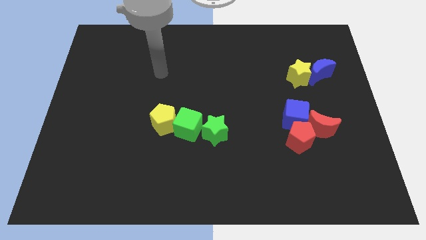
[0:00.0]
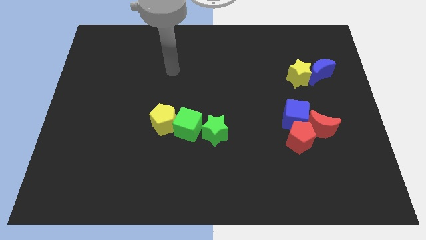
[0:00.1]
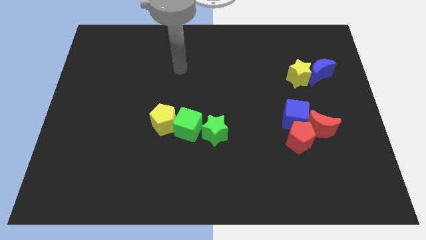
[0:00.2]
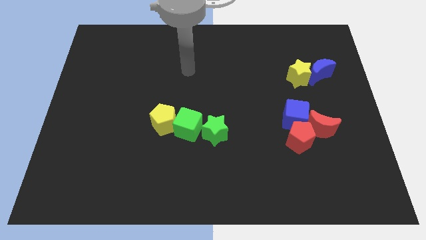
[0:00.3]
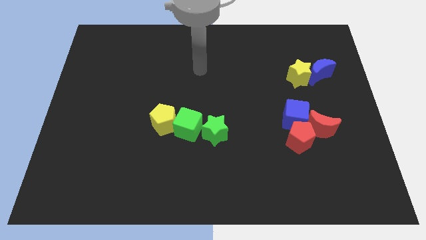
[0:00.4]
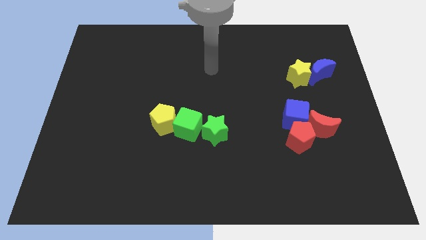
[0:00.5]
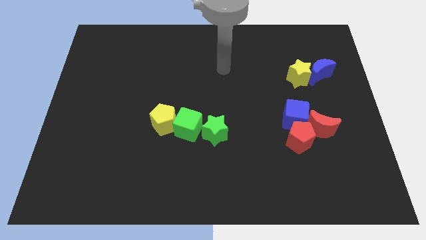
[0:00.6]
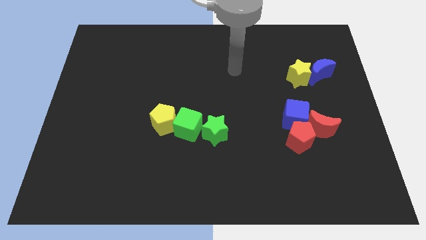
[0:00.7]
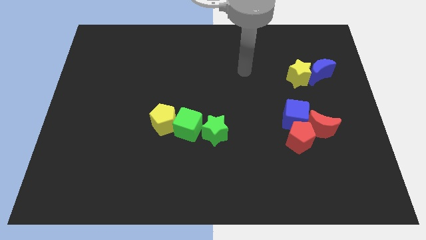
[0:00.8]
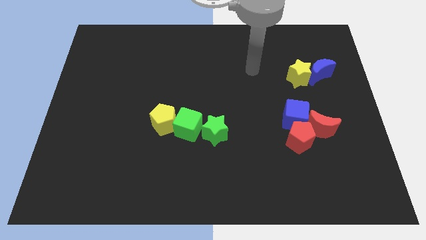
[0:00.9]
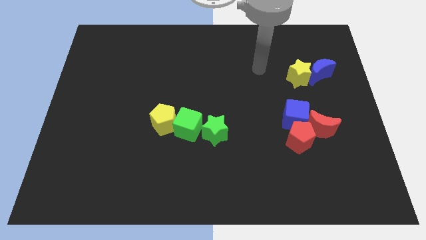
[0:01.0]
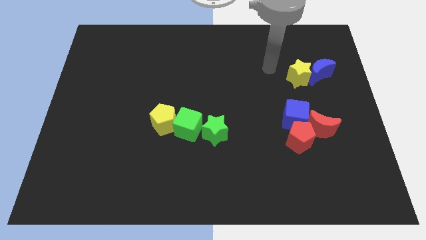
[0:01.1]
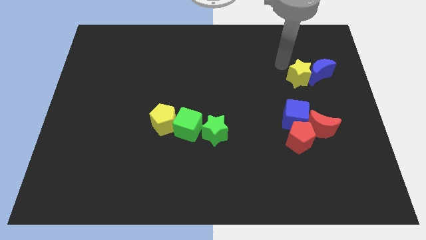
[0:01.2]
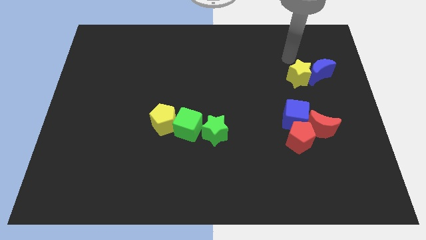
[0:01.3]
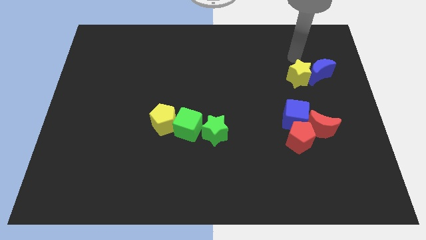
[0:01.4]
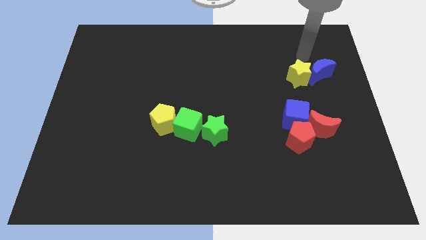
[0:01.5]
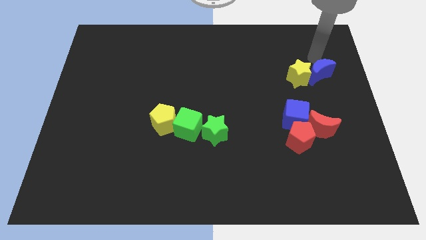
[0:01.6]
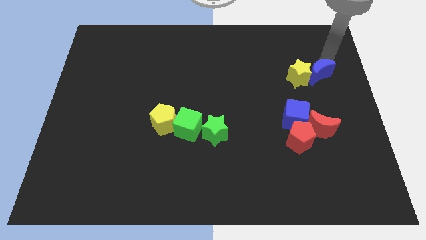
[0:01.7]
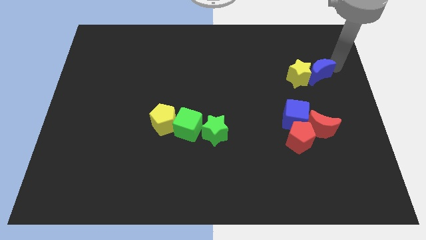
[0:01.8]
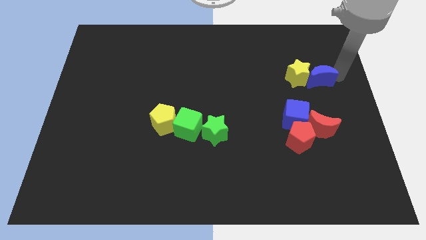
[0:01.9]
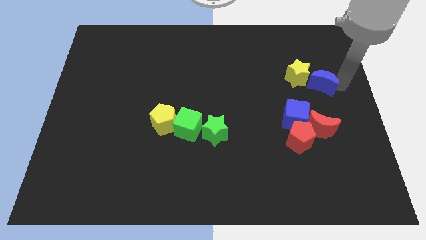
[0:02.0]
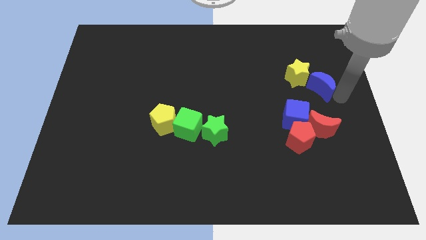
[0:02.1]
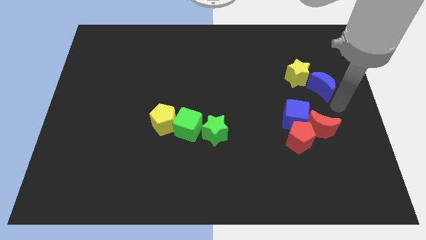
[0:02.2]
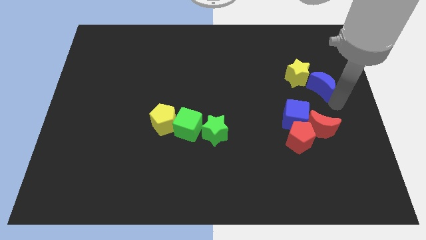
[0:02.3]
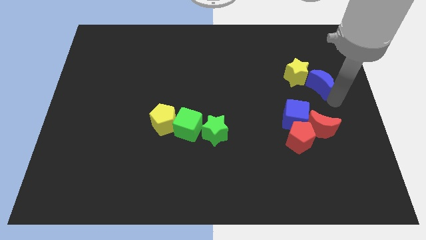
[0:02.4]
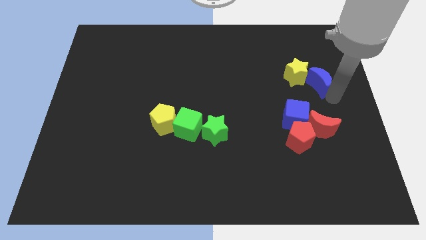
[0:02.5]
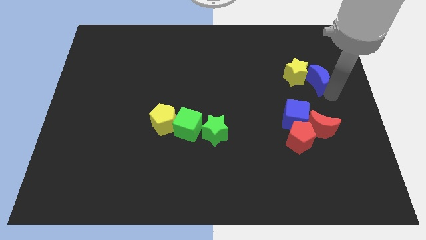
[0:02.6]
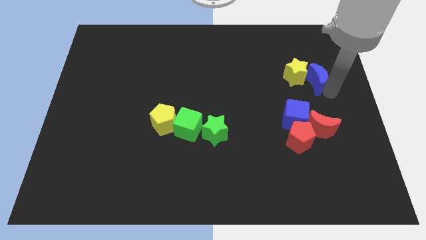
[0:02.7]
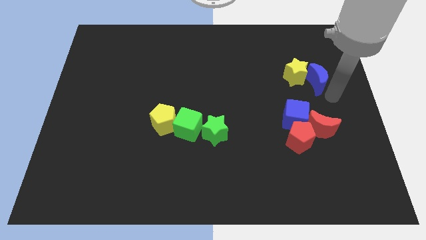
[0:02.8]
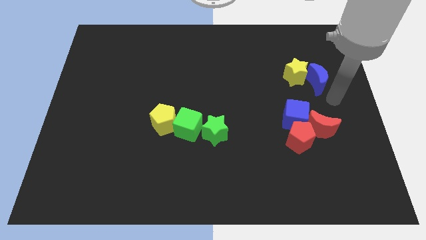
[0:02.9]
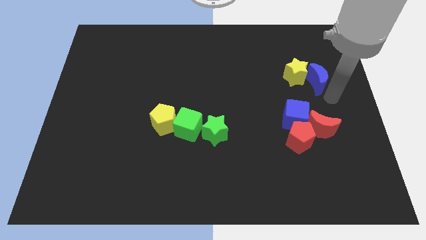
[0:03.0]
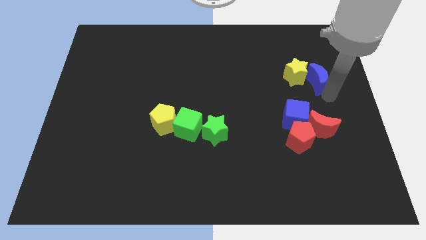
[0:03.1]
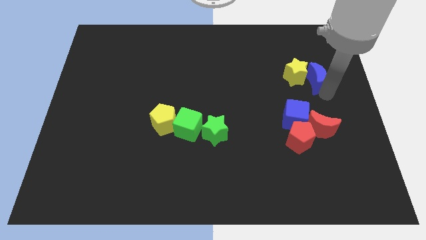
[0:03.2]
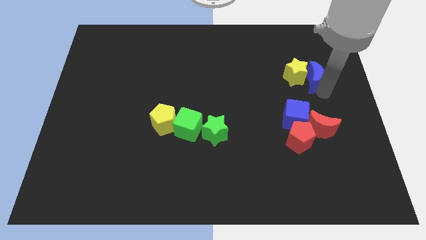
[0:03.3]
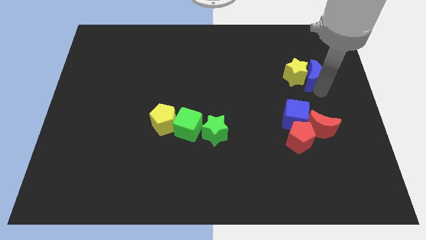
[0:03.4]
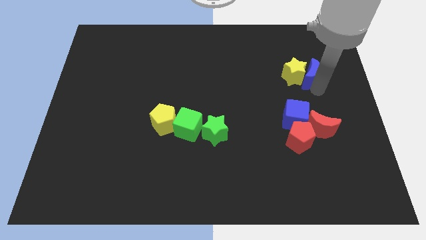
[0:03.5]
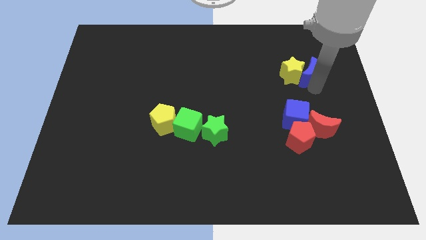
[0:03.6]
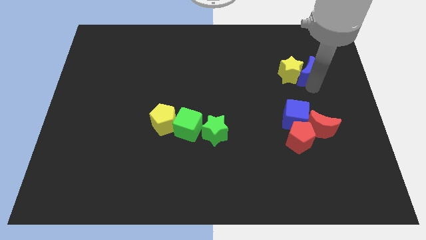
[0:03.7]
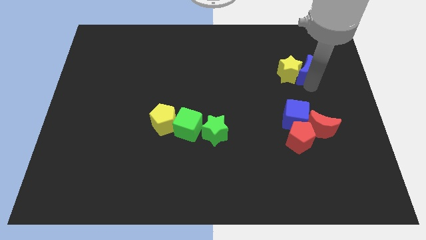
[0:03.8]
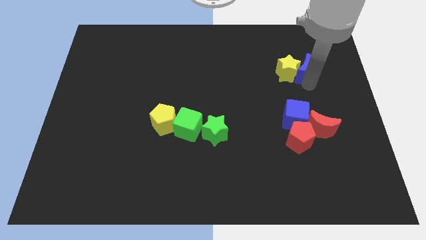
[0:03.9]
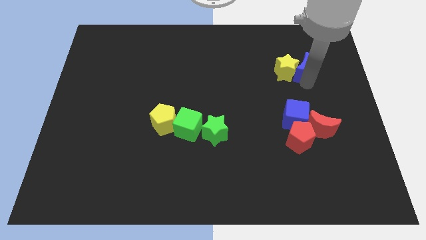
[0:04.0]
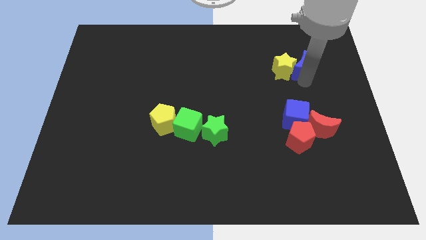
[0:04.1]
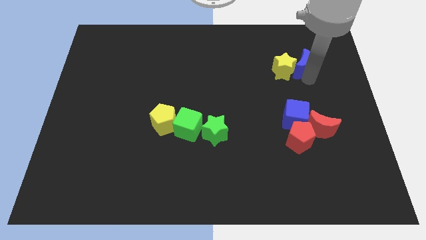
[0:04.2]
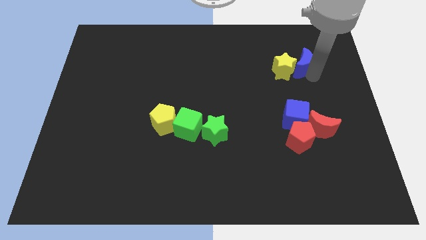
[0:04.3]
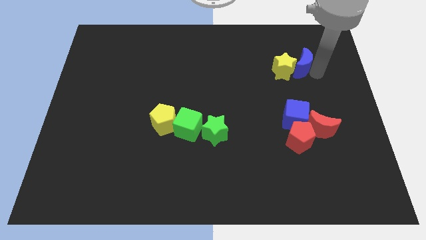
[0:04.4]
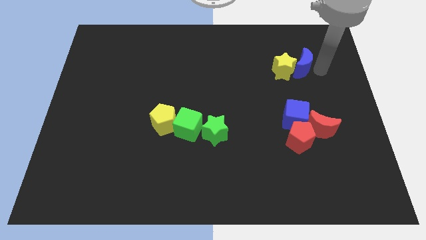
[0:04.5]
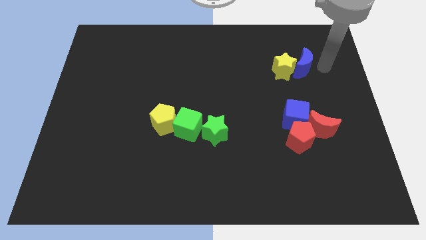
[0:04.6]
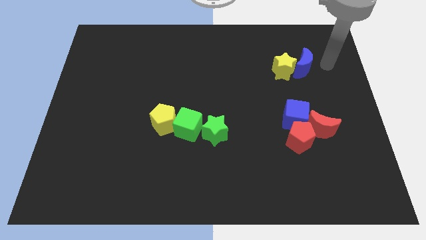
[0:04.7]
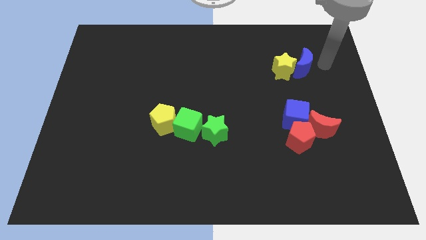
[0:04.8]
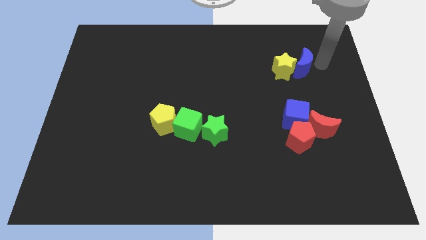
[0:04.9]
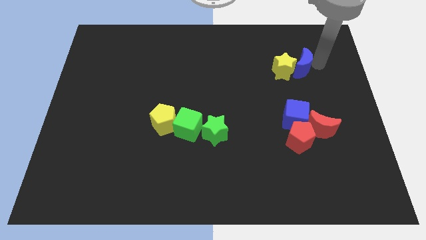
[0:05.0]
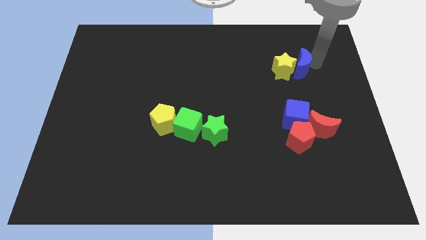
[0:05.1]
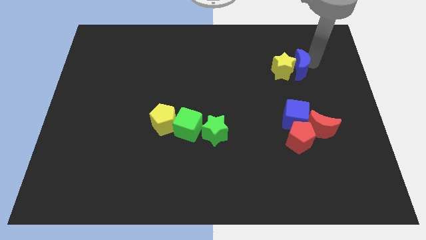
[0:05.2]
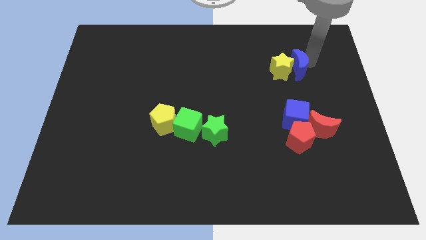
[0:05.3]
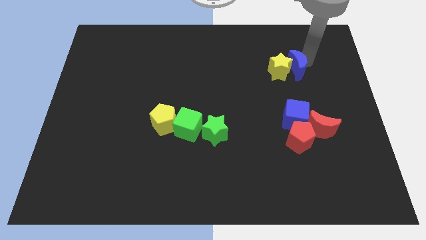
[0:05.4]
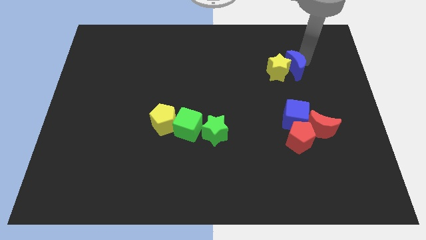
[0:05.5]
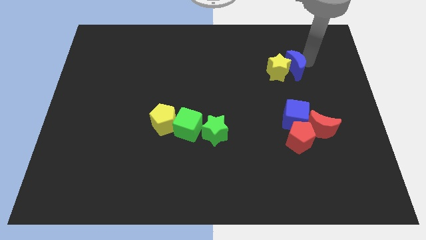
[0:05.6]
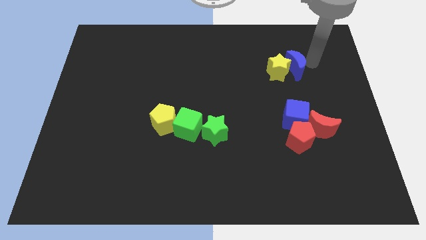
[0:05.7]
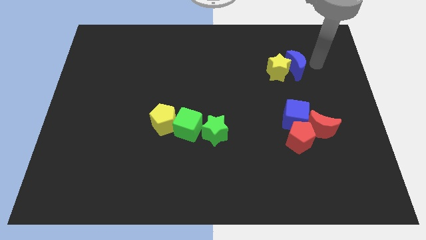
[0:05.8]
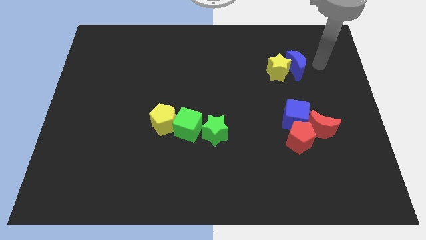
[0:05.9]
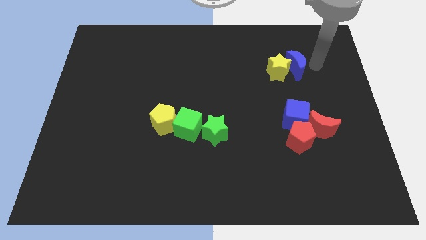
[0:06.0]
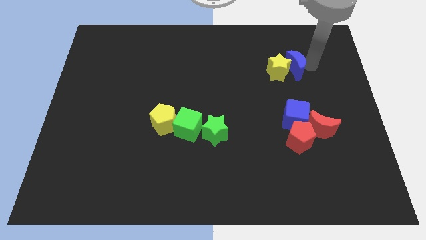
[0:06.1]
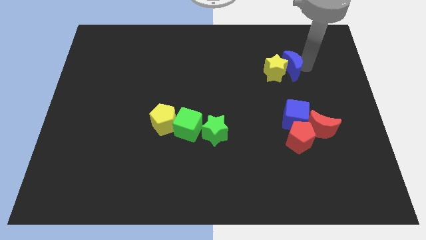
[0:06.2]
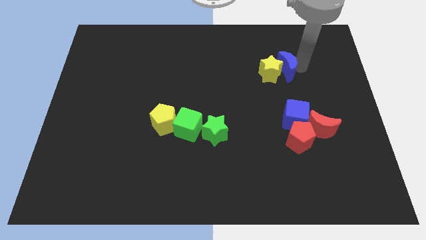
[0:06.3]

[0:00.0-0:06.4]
move the blue moon a little left

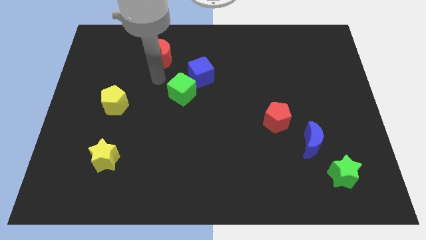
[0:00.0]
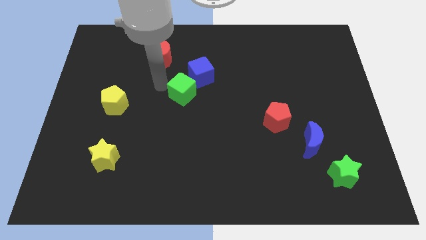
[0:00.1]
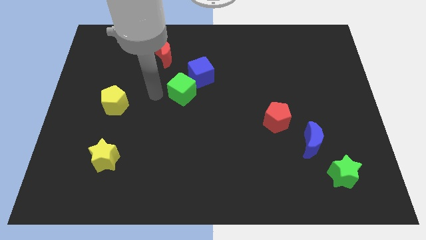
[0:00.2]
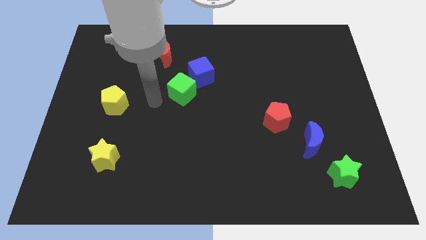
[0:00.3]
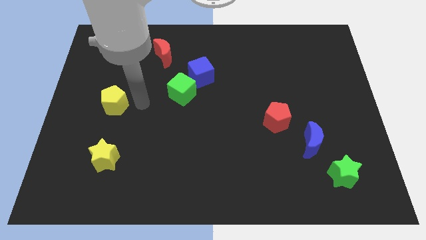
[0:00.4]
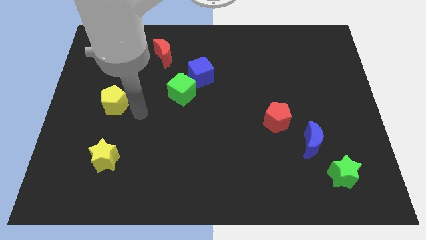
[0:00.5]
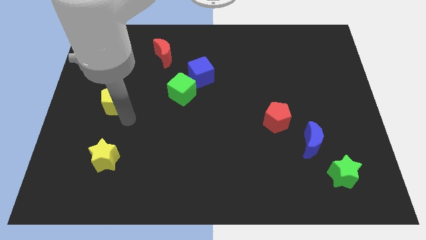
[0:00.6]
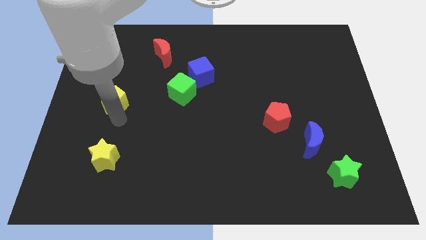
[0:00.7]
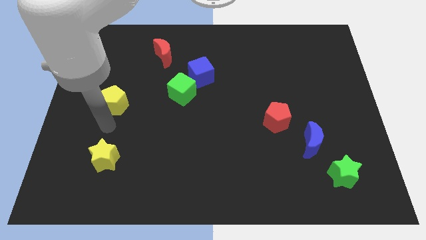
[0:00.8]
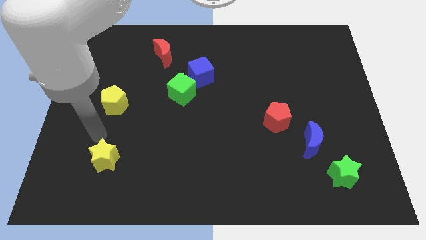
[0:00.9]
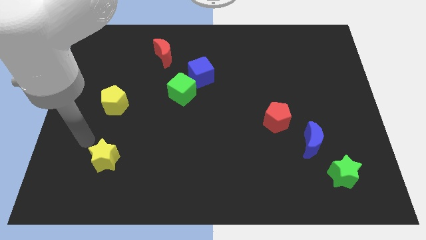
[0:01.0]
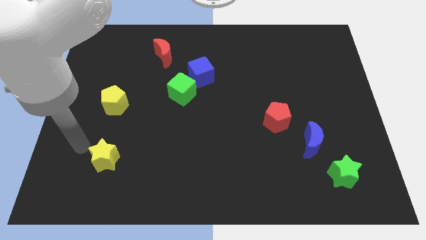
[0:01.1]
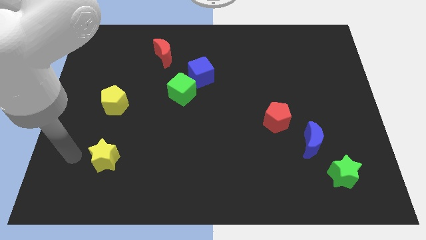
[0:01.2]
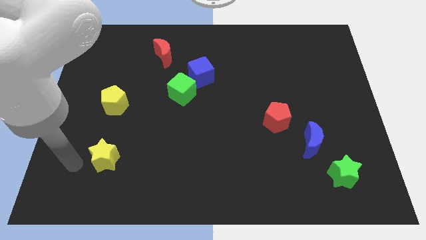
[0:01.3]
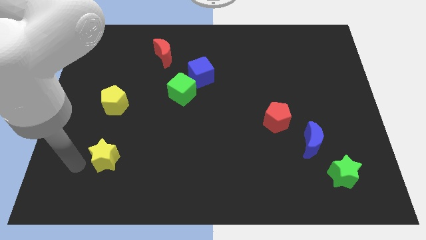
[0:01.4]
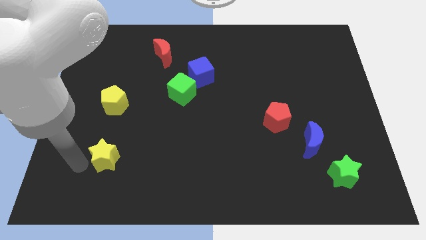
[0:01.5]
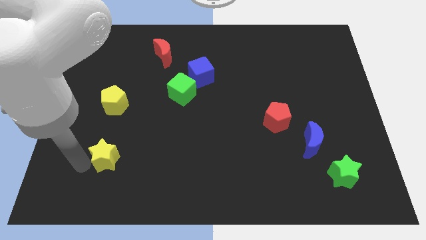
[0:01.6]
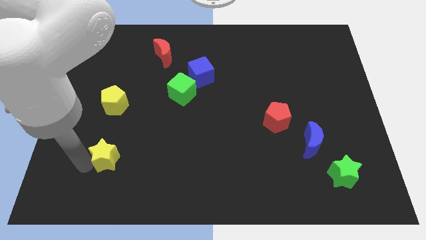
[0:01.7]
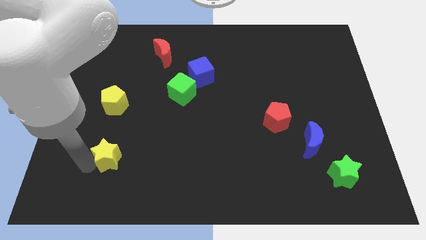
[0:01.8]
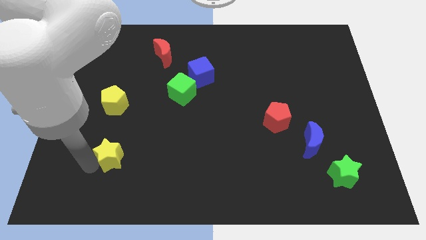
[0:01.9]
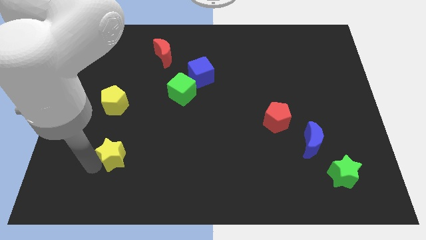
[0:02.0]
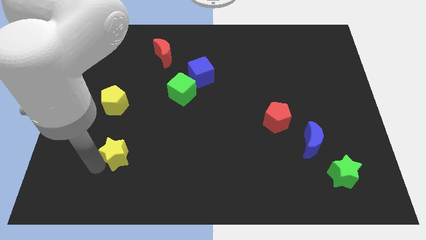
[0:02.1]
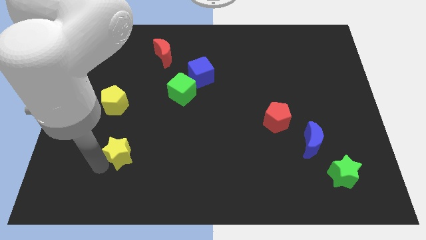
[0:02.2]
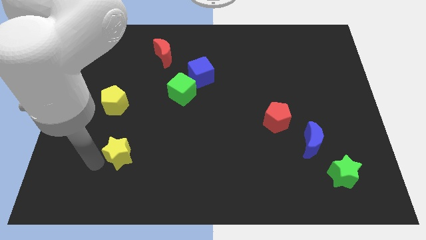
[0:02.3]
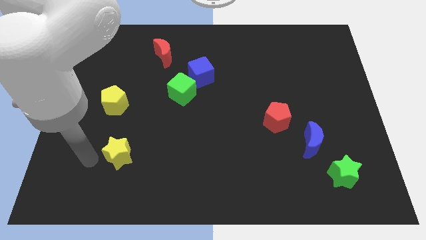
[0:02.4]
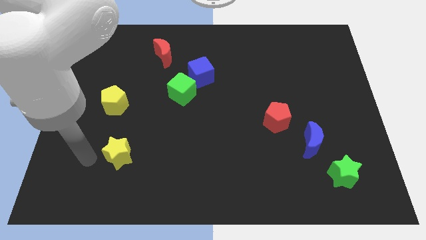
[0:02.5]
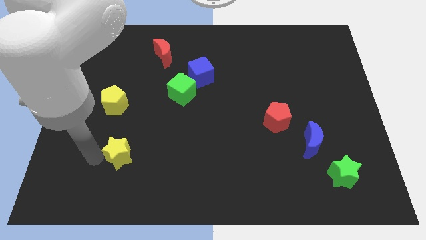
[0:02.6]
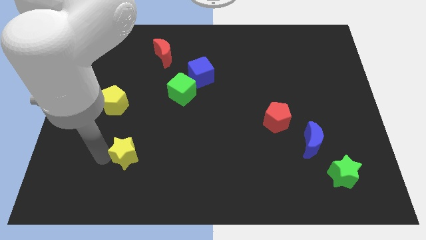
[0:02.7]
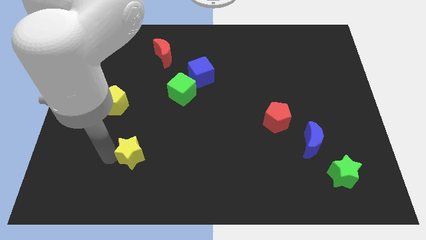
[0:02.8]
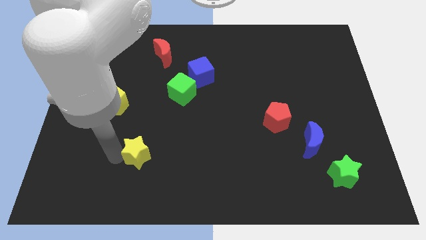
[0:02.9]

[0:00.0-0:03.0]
move the yellow star somewhat right
